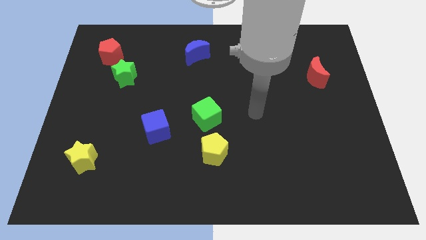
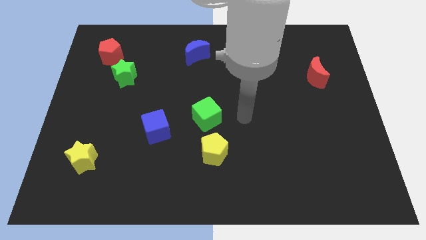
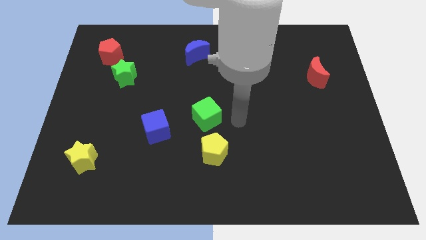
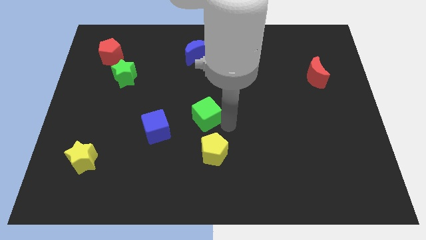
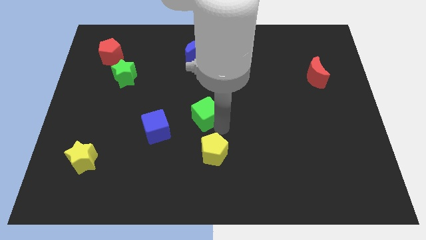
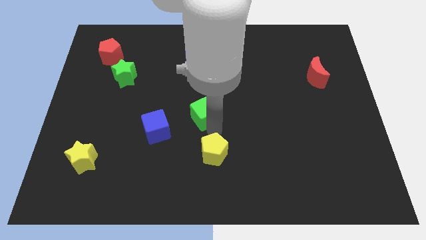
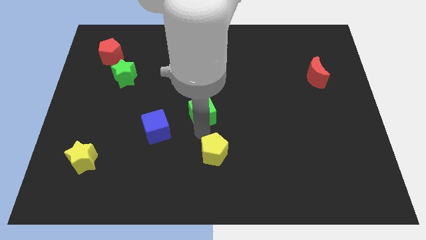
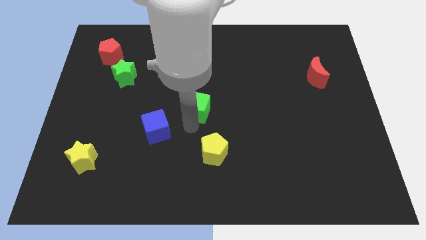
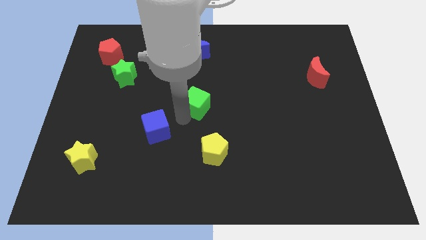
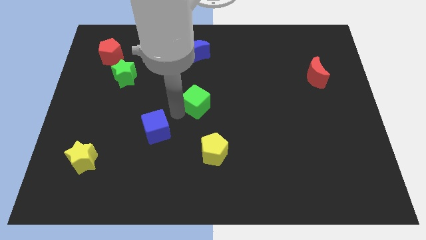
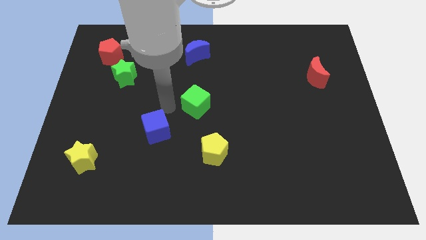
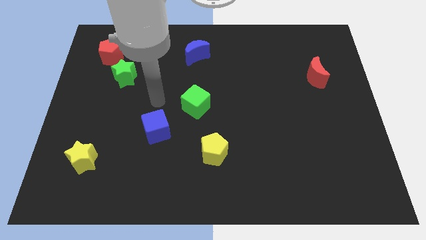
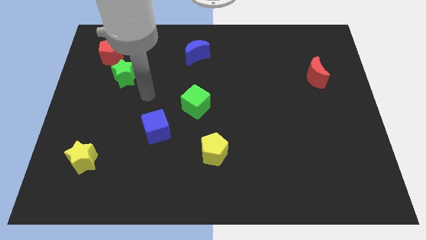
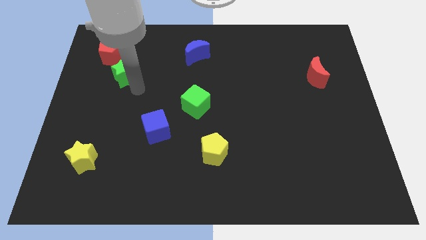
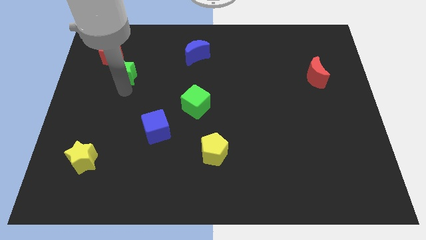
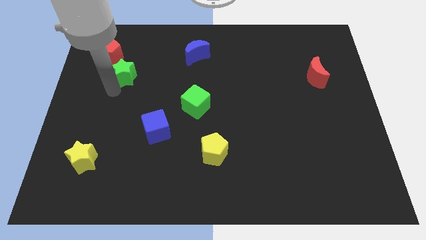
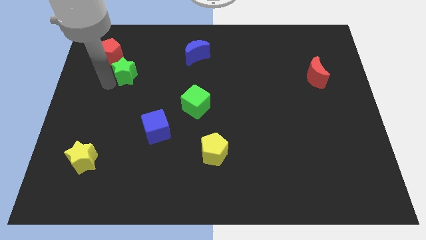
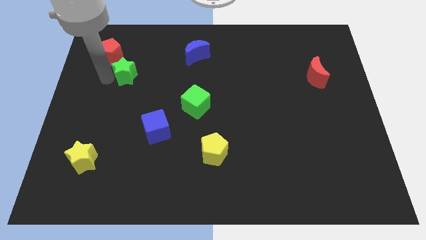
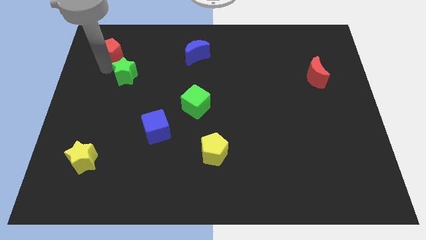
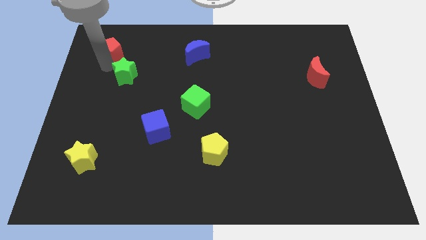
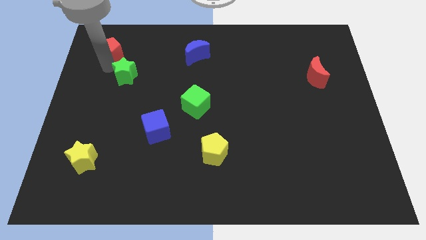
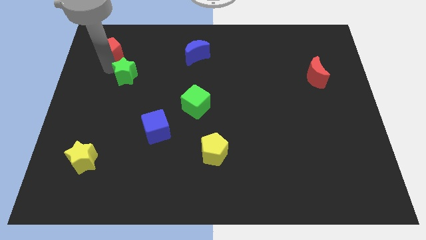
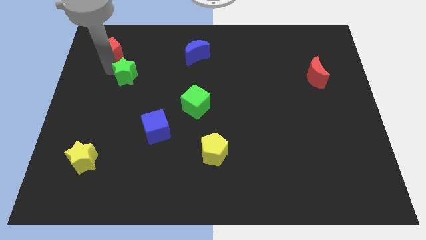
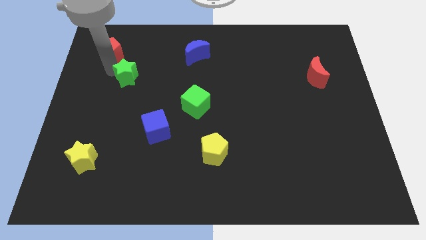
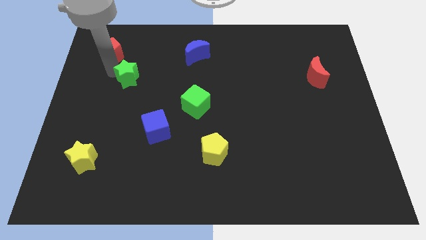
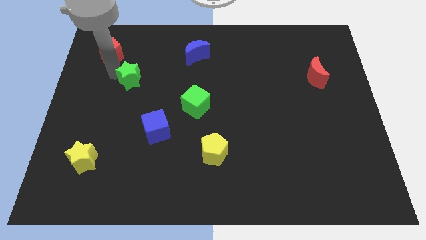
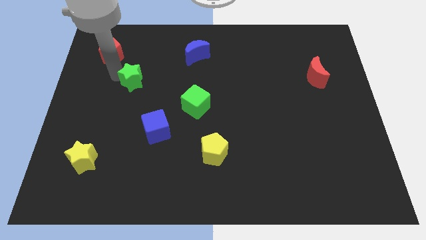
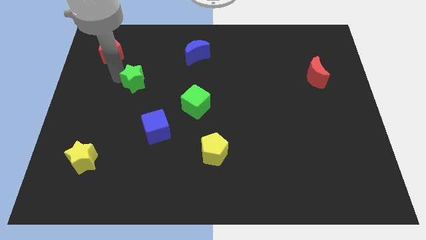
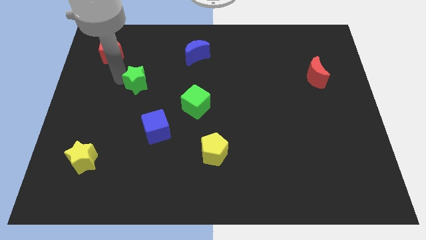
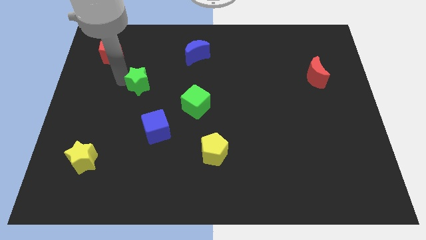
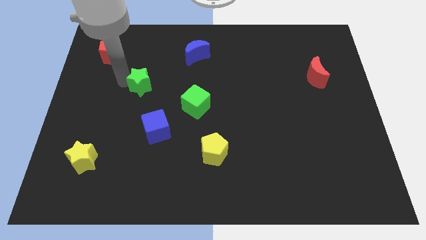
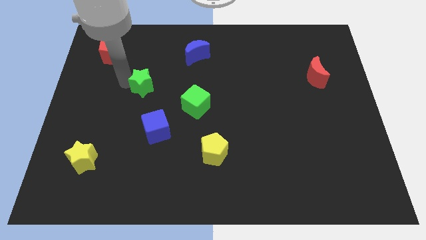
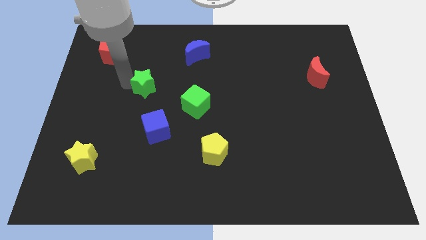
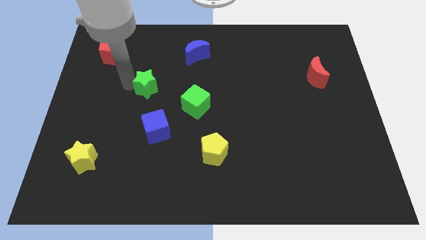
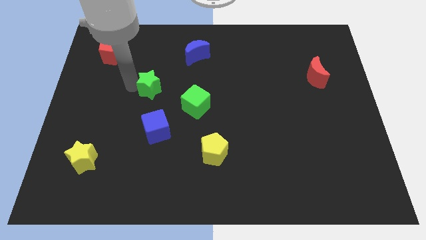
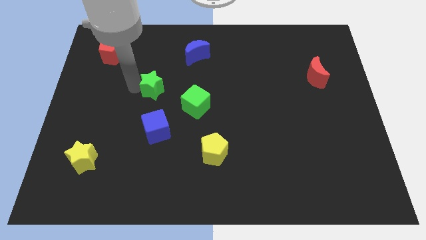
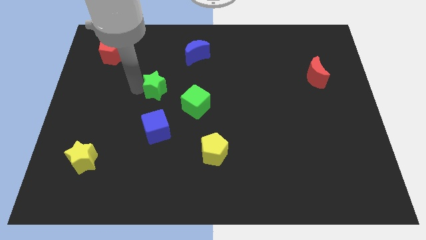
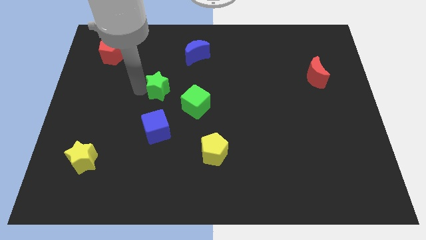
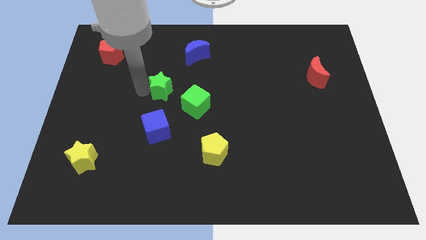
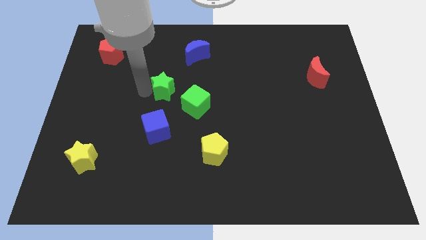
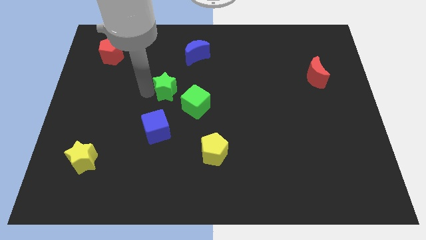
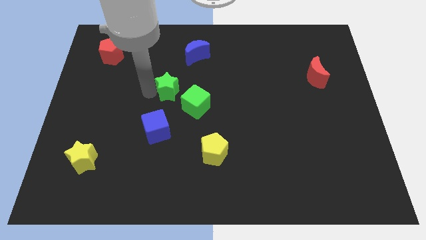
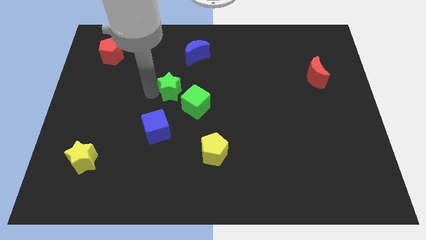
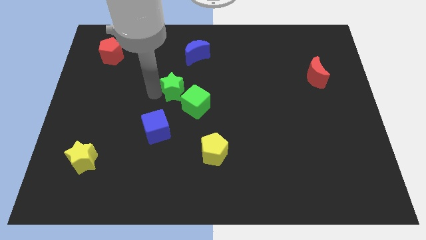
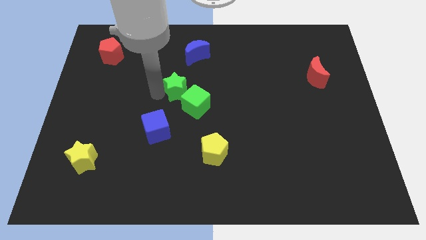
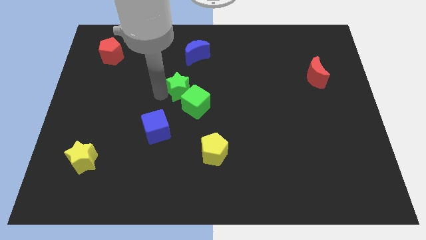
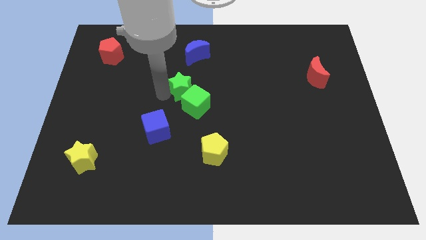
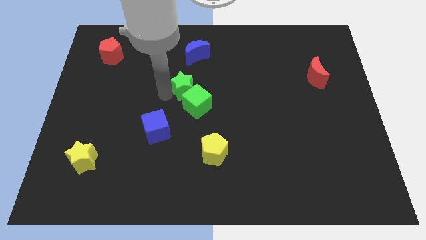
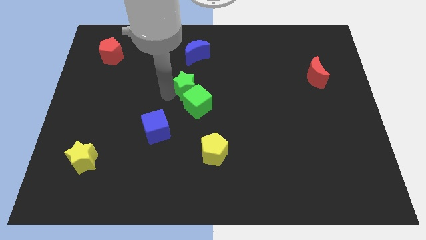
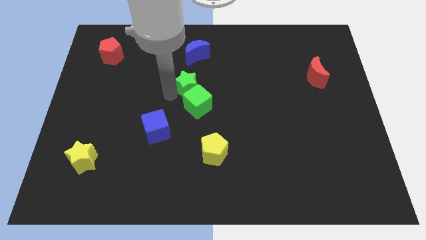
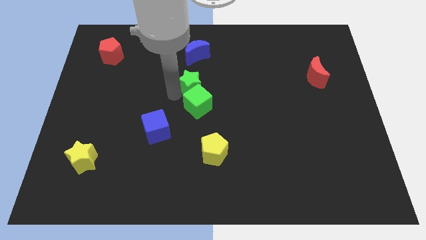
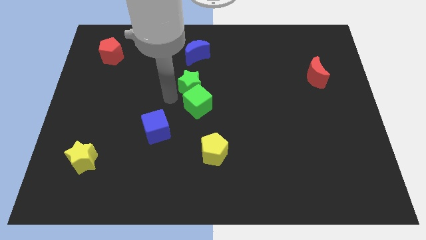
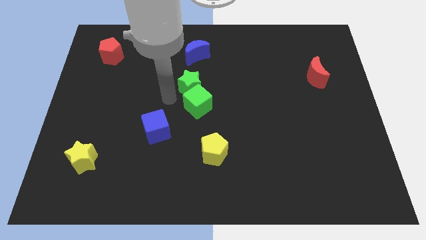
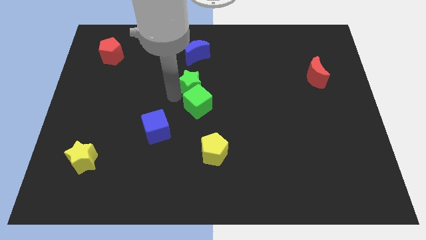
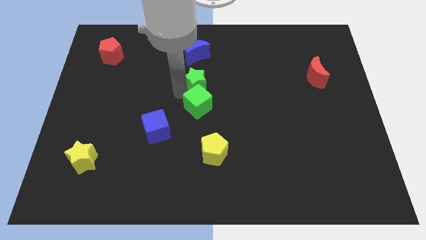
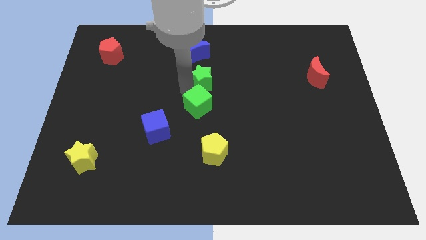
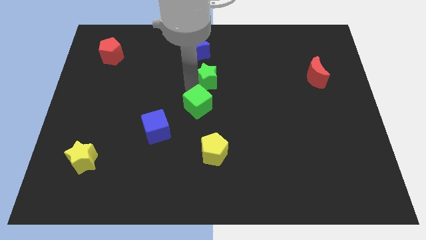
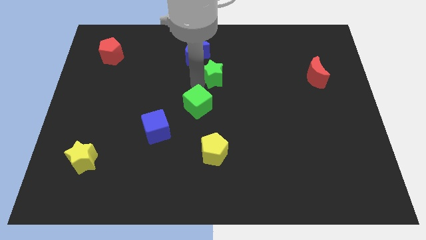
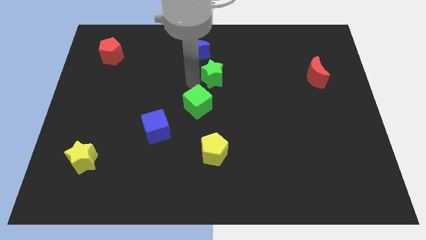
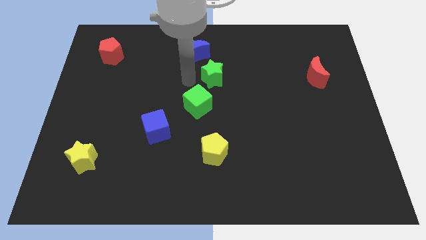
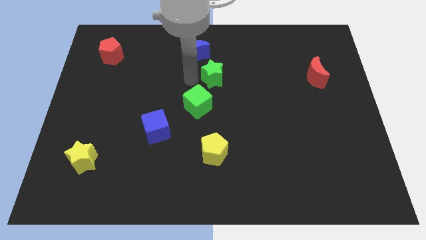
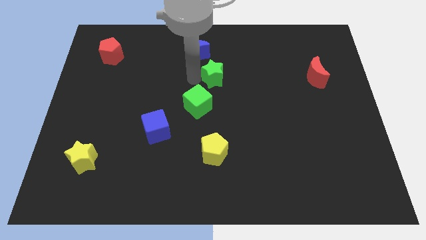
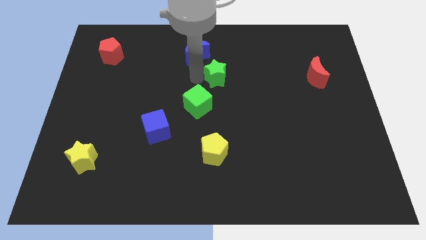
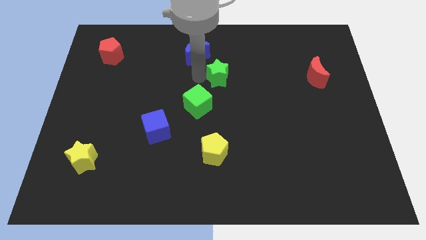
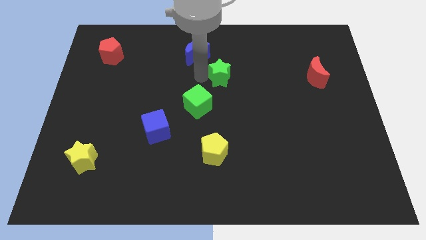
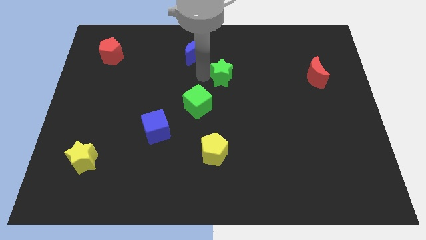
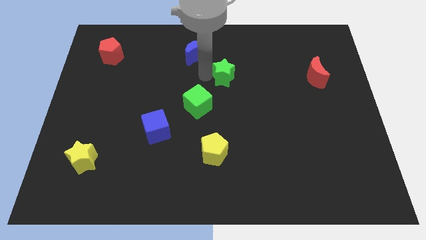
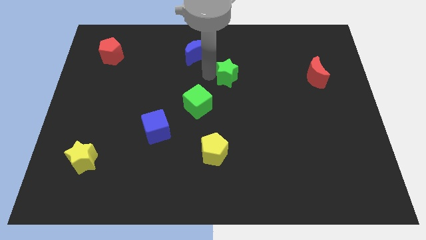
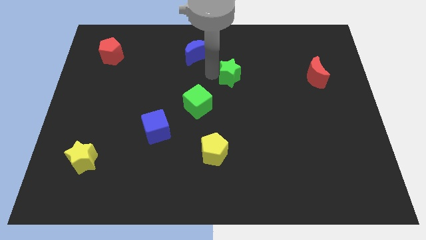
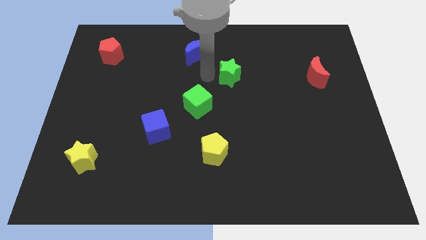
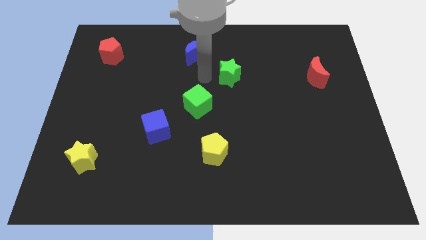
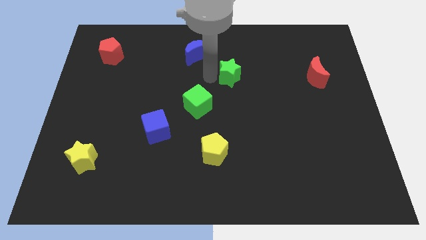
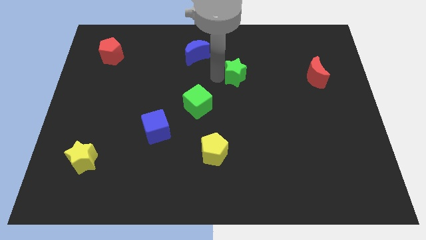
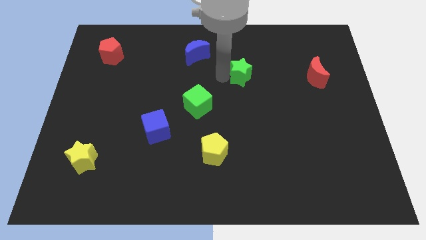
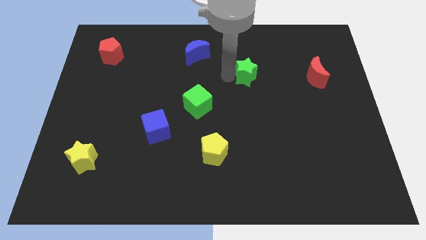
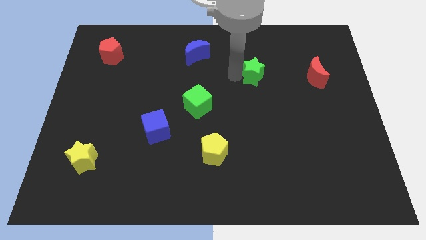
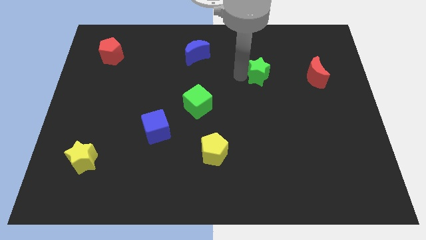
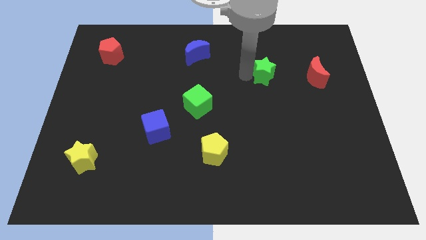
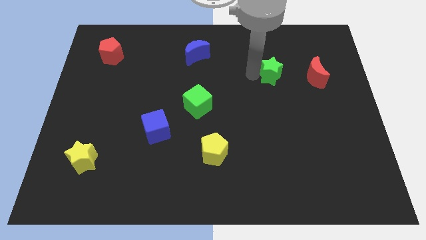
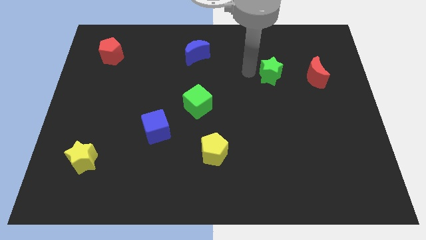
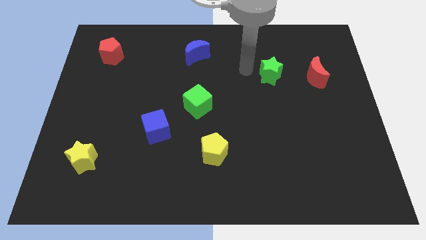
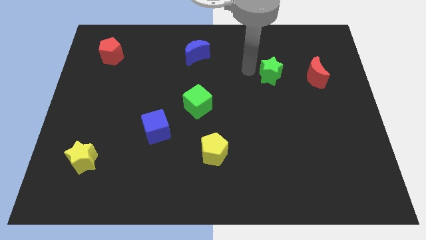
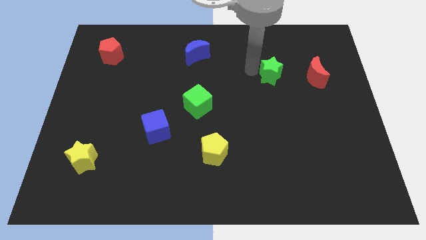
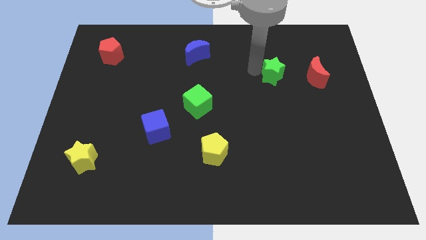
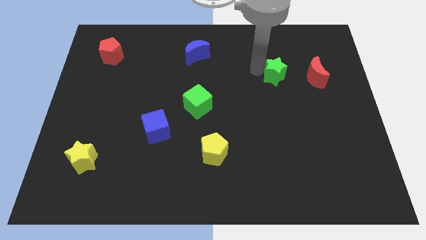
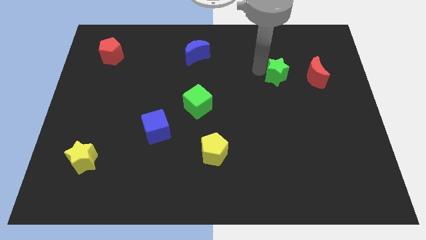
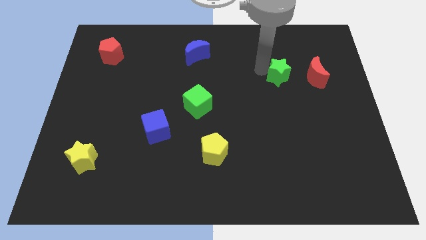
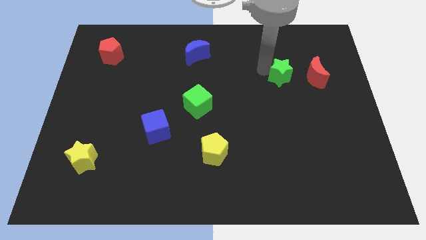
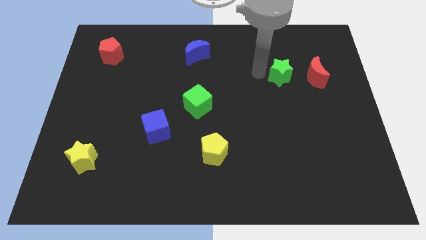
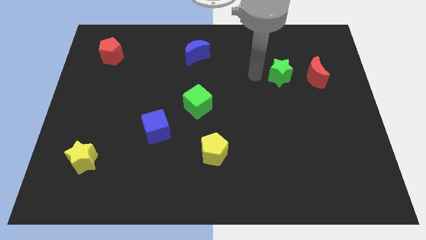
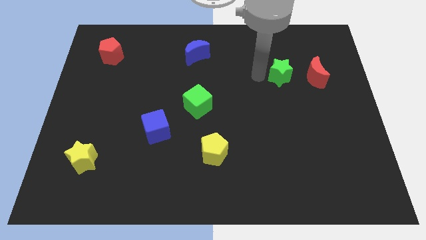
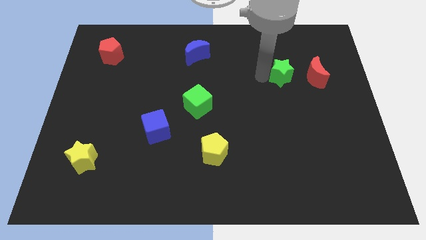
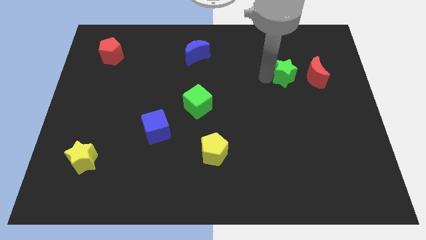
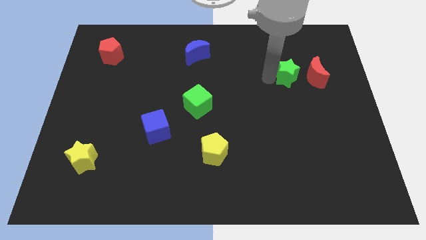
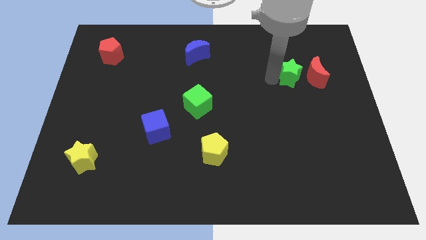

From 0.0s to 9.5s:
push the green star to the red moon
